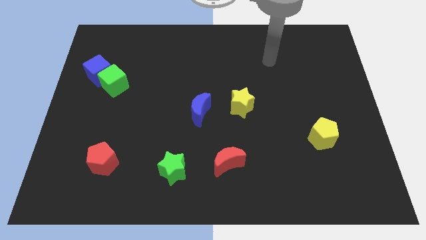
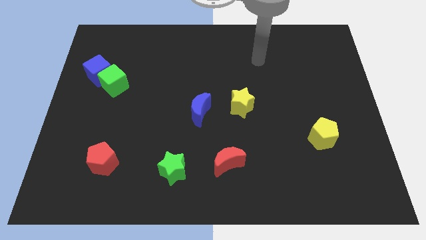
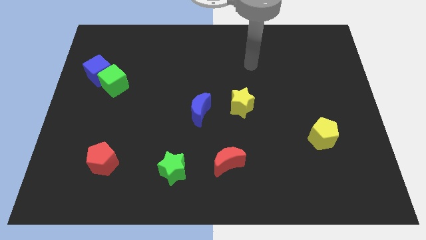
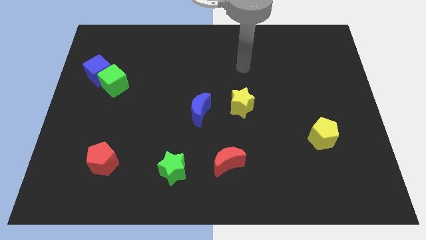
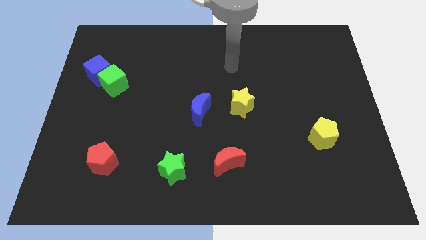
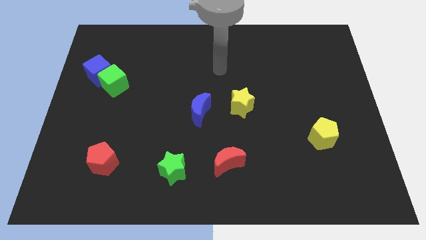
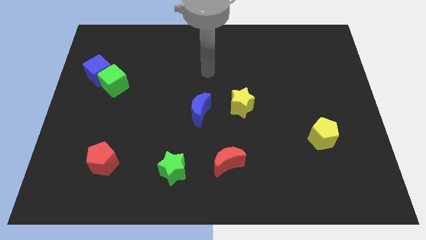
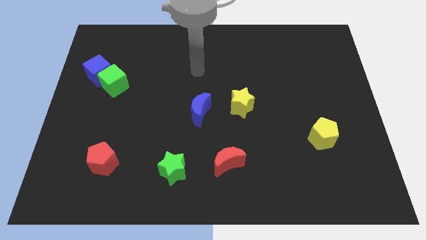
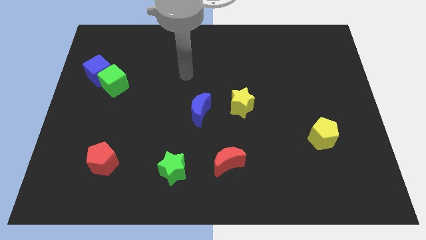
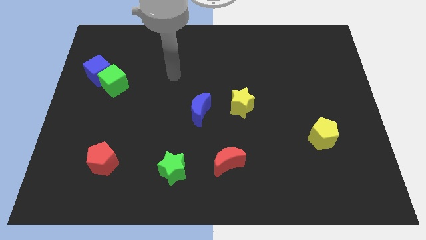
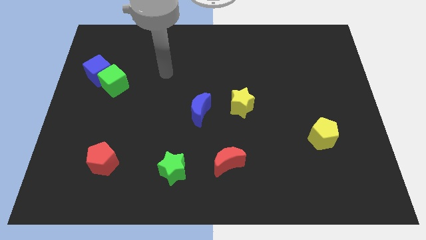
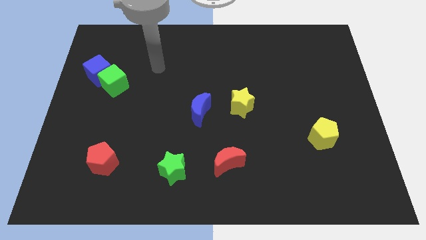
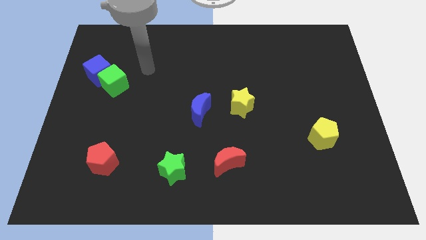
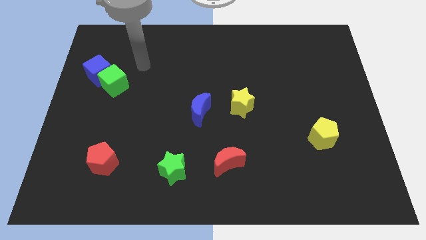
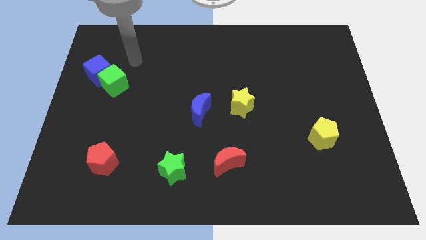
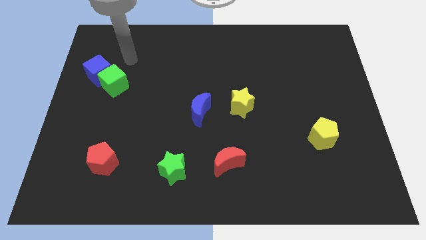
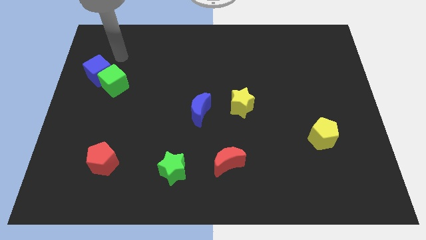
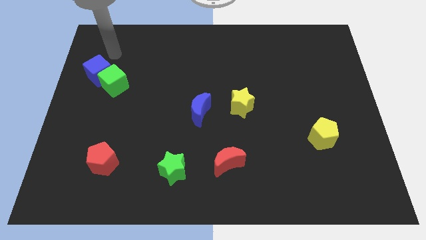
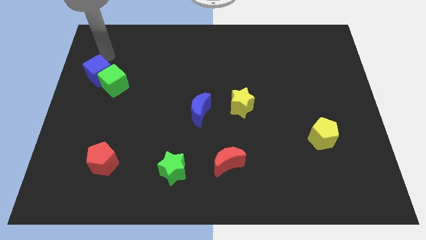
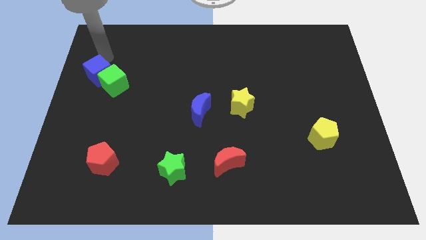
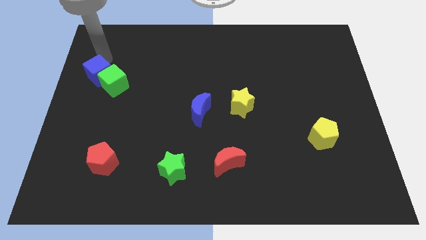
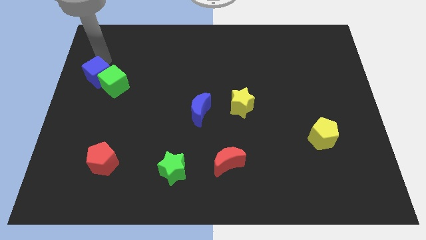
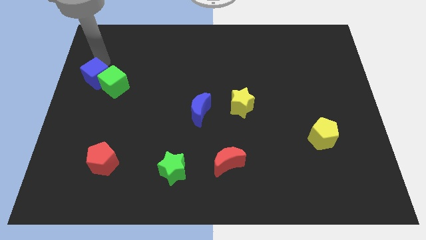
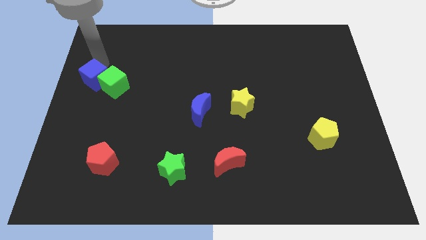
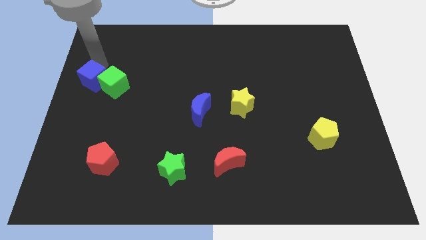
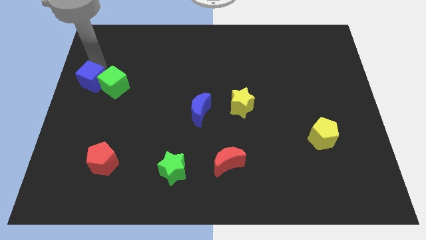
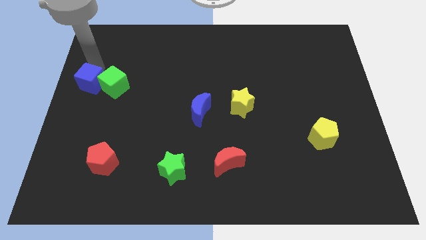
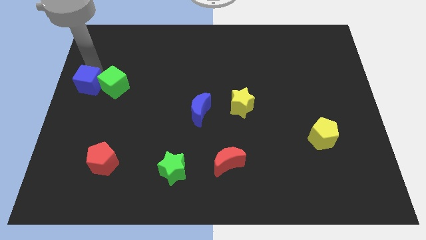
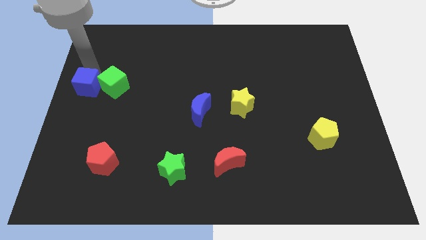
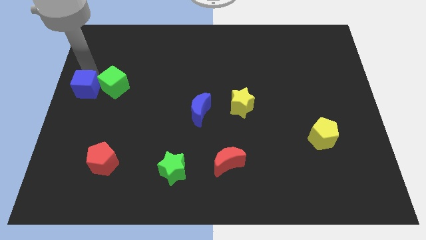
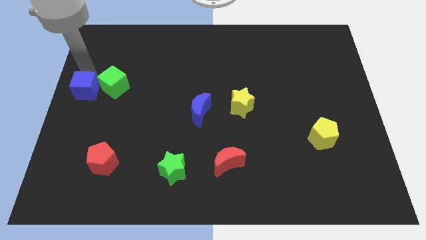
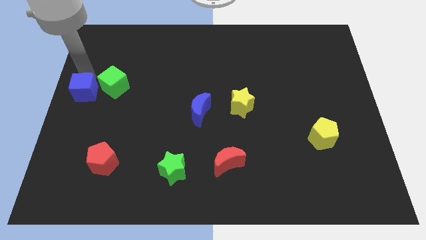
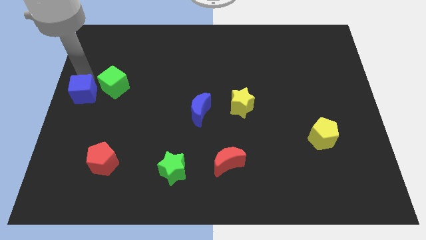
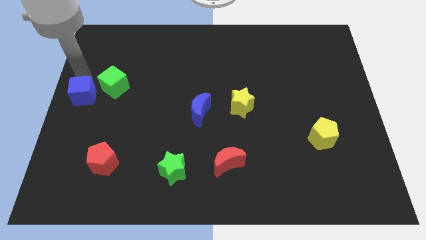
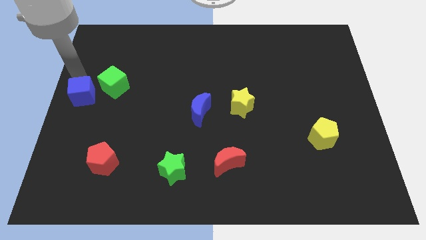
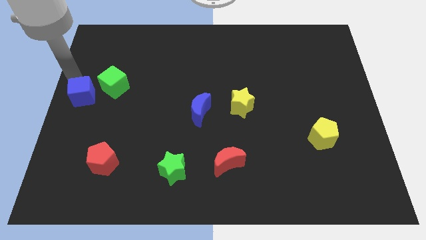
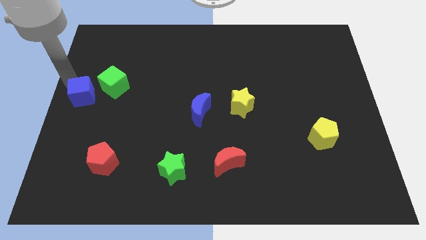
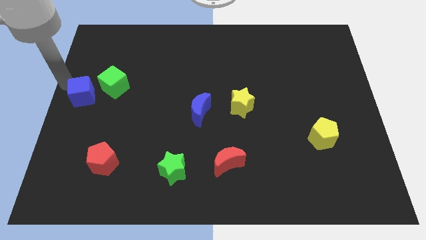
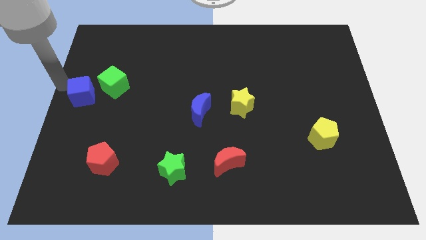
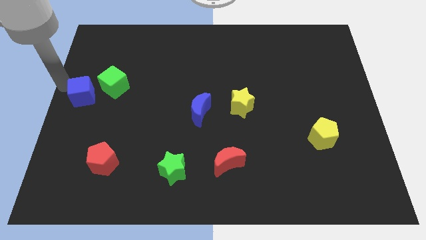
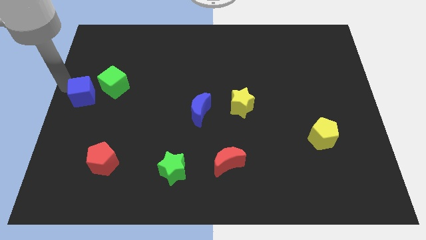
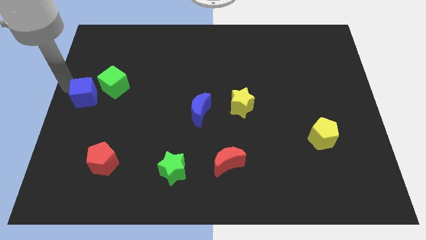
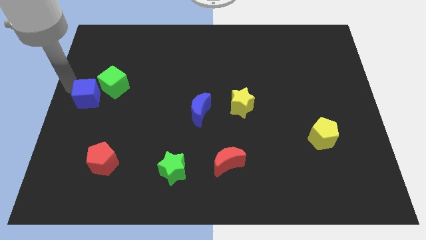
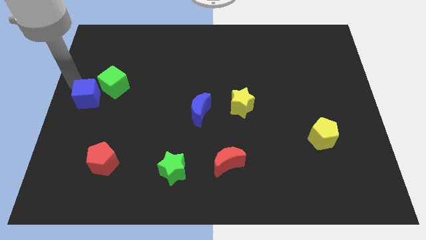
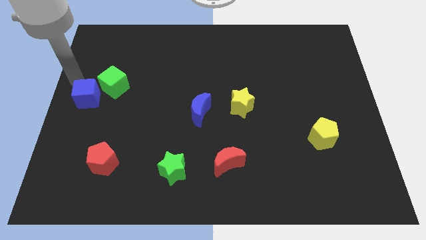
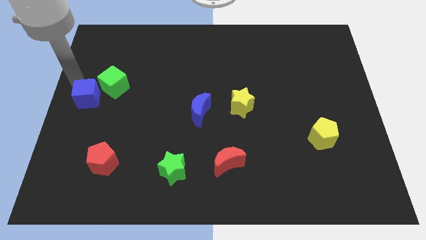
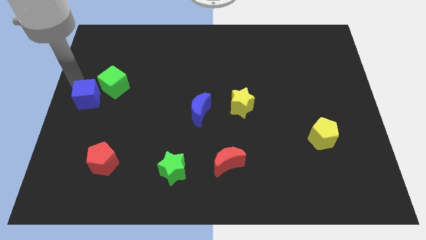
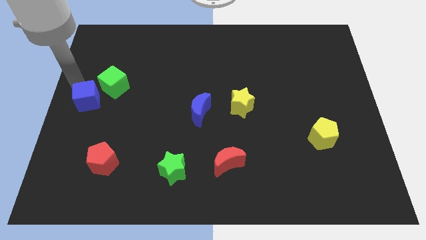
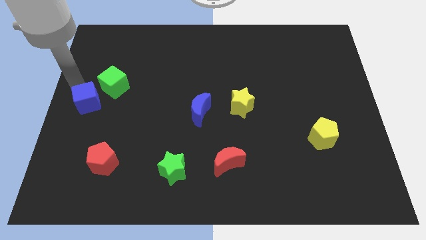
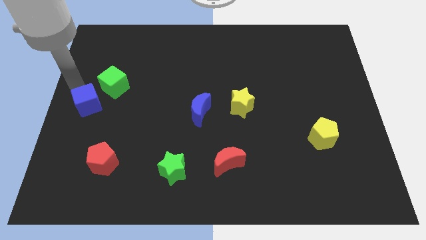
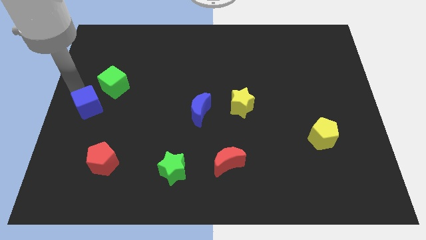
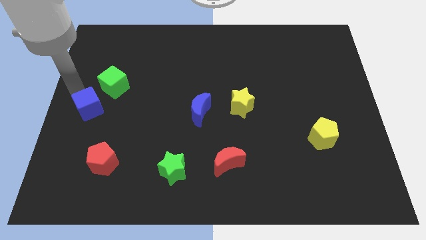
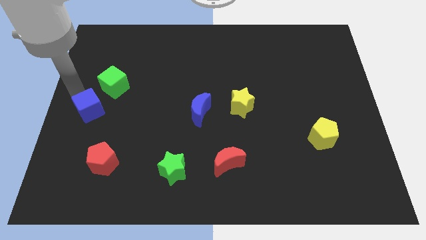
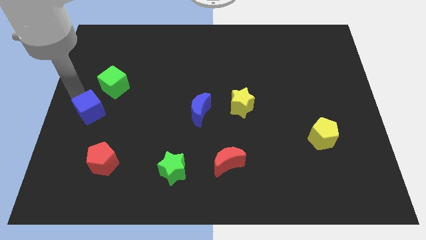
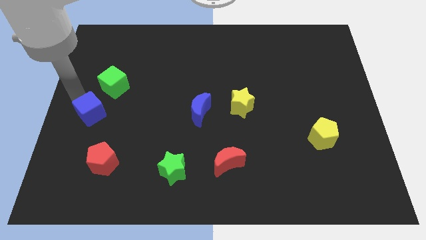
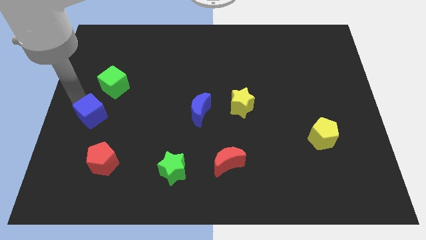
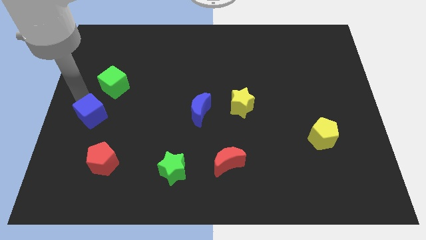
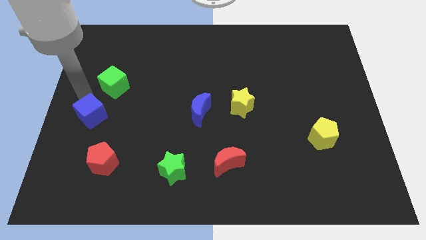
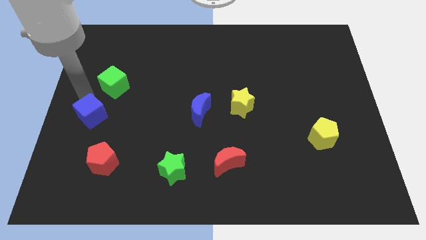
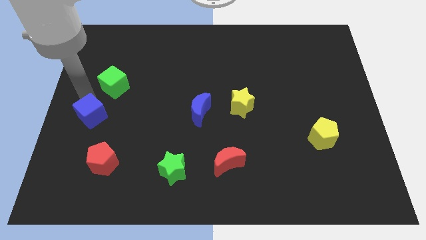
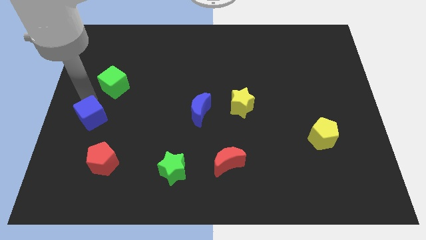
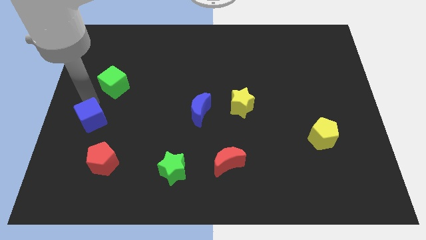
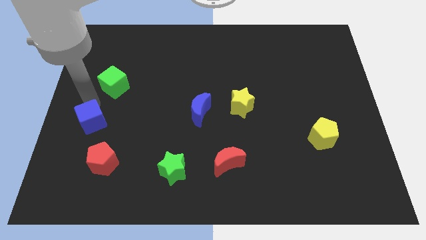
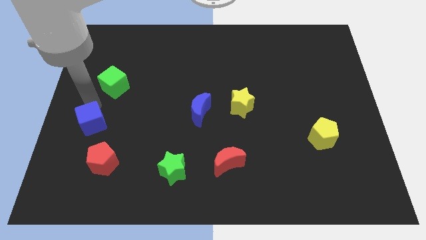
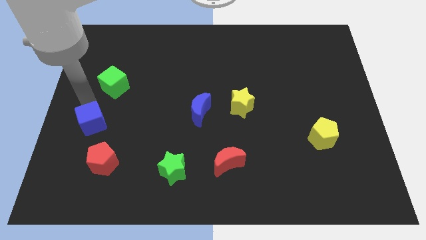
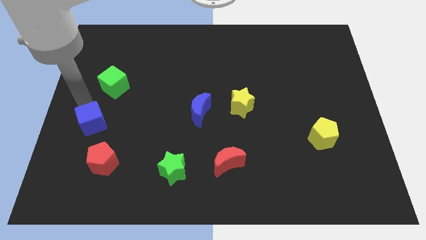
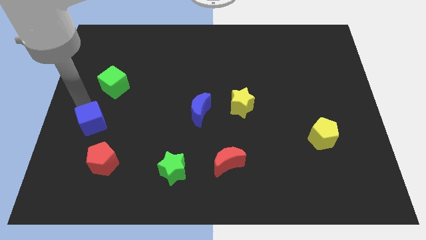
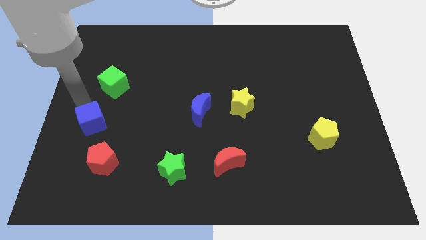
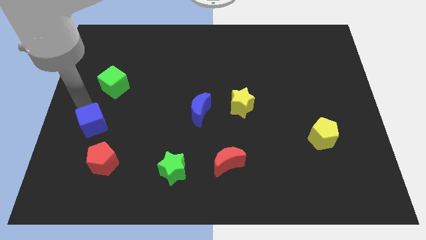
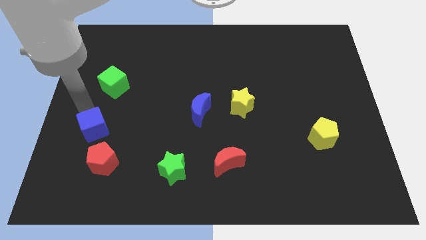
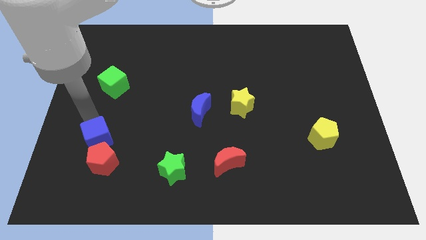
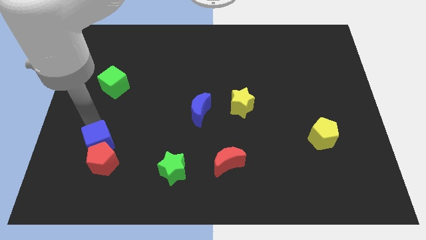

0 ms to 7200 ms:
slide the blue cube close to the red pentagon
